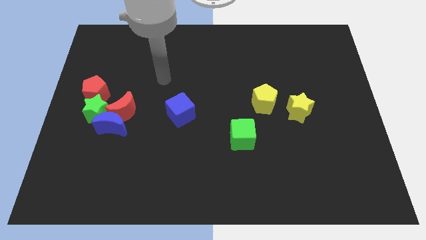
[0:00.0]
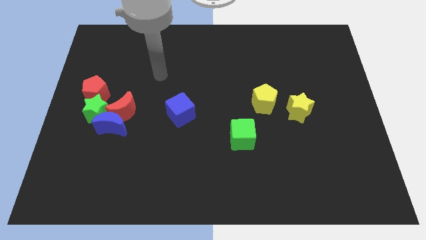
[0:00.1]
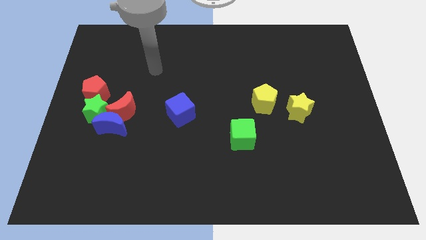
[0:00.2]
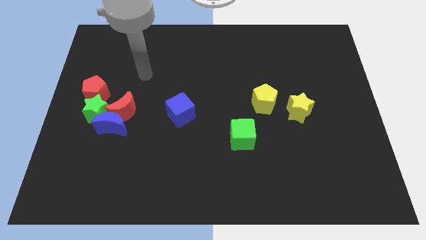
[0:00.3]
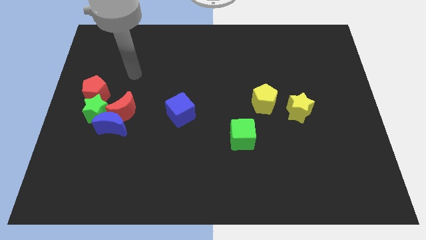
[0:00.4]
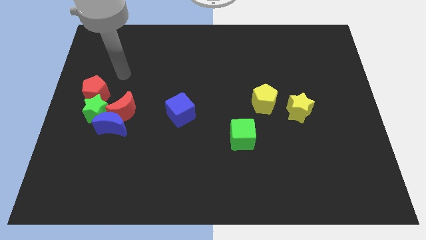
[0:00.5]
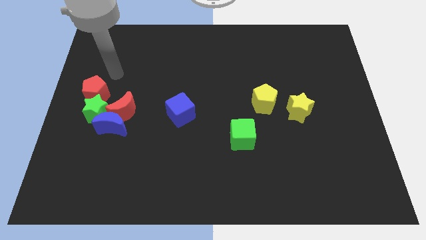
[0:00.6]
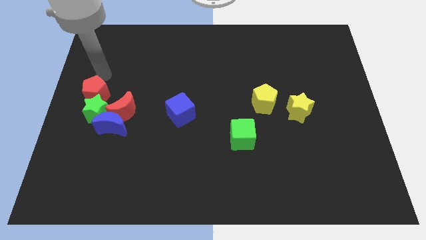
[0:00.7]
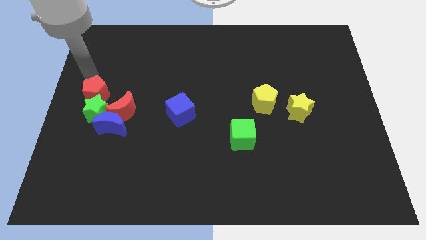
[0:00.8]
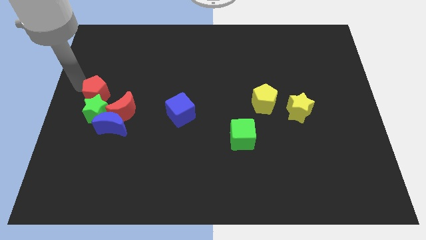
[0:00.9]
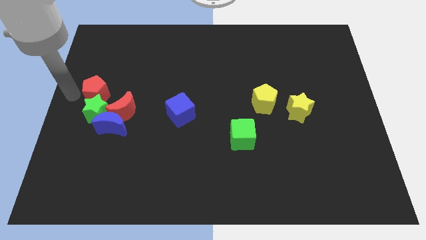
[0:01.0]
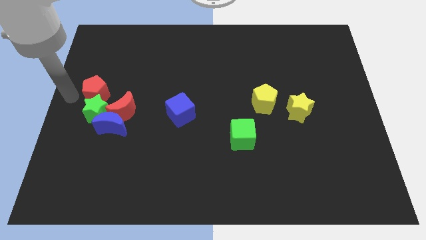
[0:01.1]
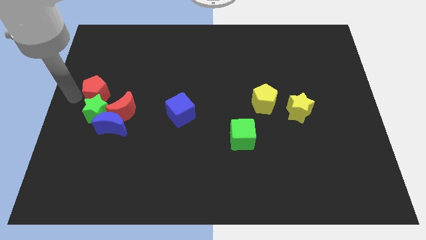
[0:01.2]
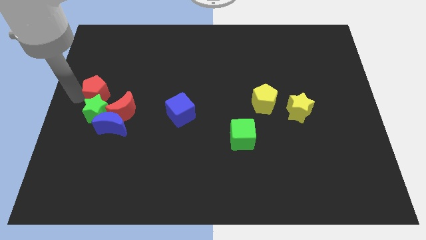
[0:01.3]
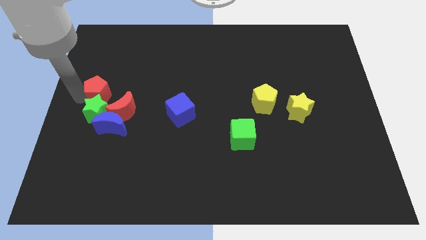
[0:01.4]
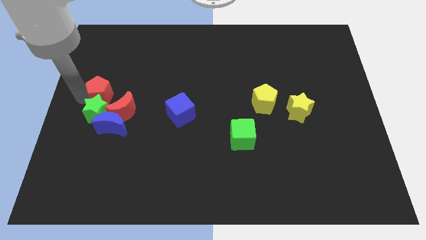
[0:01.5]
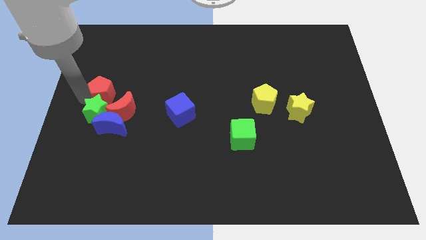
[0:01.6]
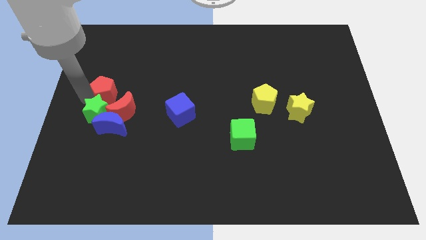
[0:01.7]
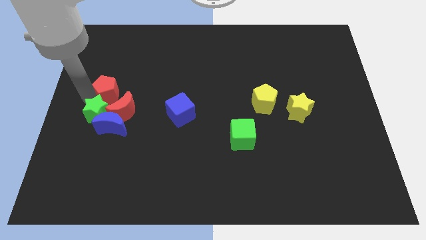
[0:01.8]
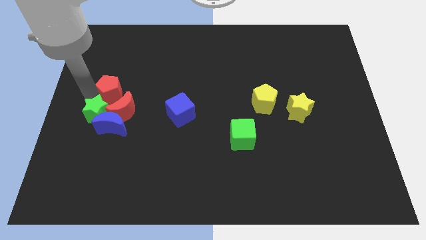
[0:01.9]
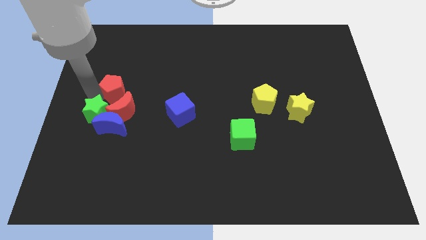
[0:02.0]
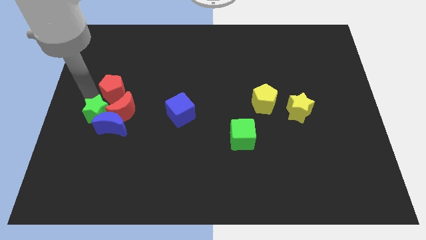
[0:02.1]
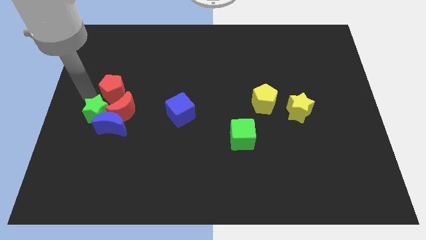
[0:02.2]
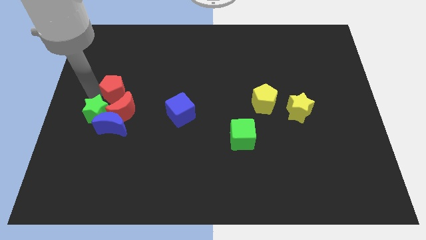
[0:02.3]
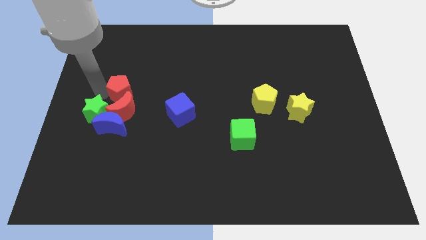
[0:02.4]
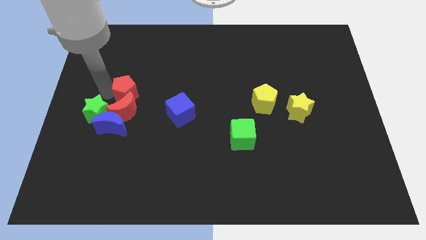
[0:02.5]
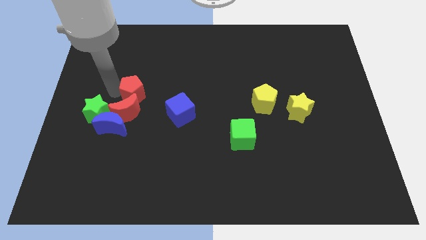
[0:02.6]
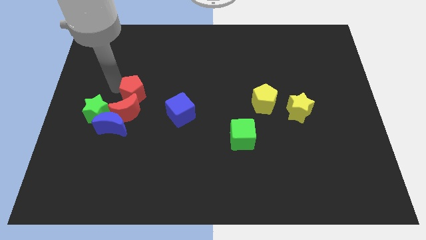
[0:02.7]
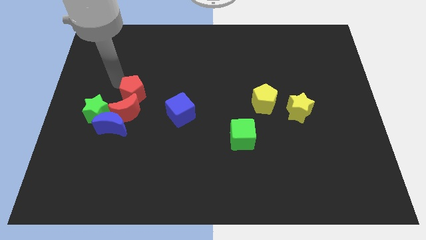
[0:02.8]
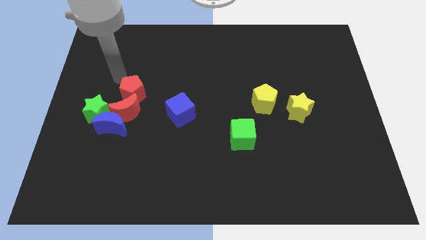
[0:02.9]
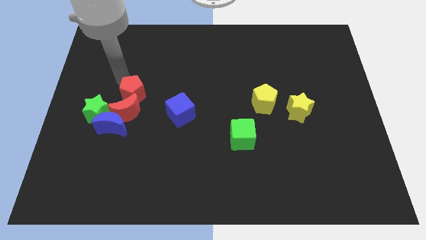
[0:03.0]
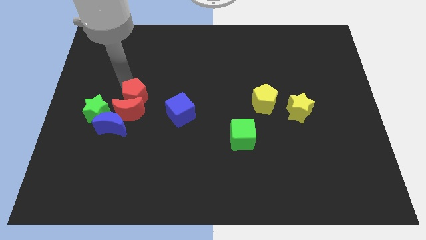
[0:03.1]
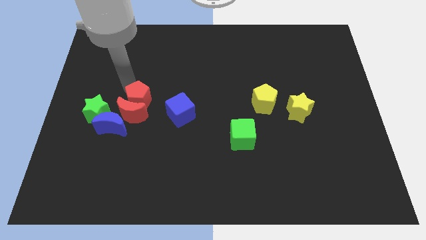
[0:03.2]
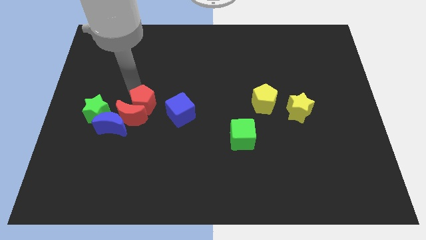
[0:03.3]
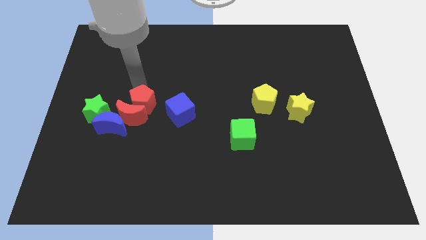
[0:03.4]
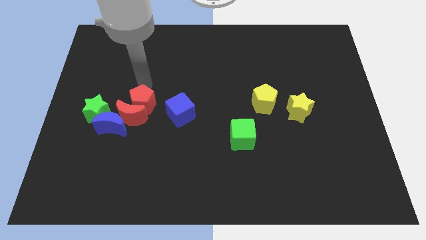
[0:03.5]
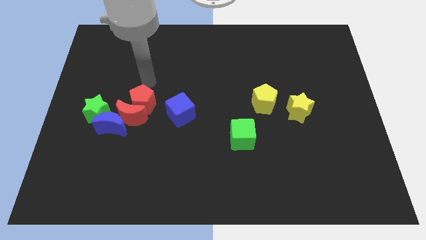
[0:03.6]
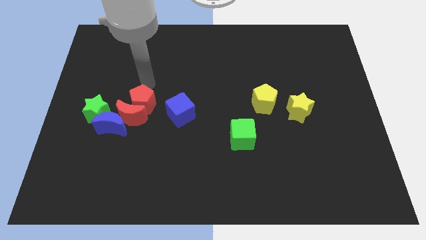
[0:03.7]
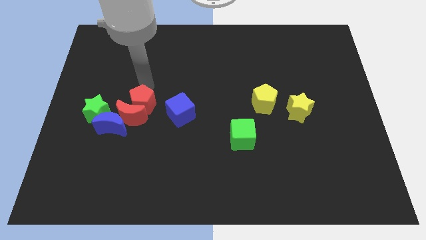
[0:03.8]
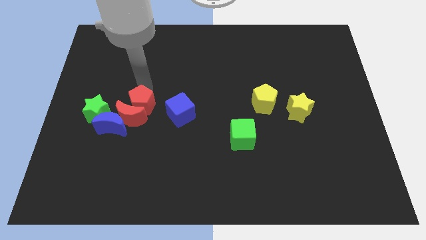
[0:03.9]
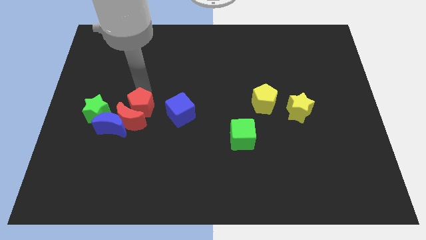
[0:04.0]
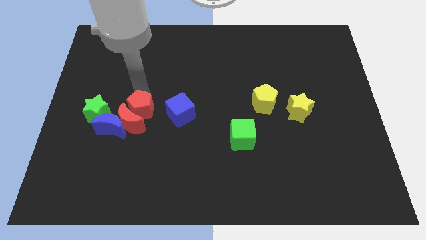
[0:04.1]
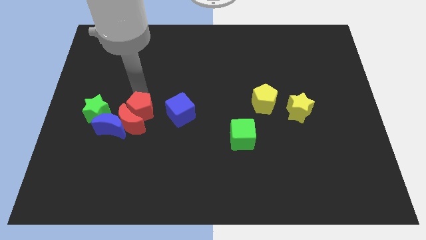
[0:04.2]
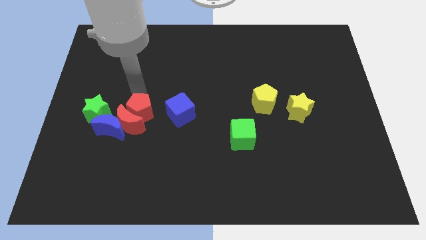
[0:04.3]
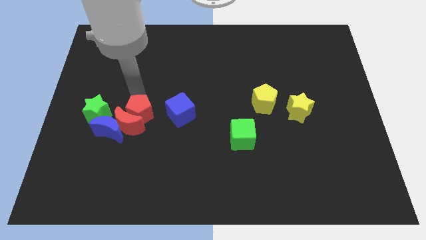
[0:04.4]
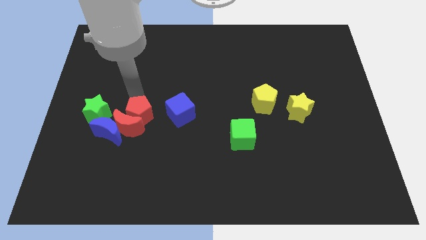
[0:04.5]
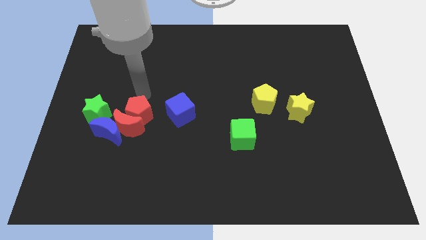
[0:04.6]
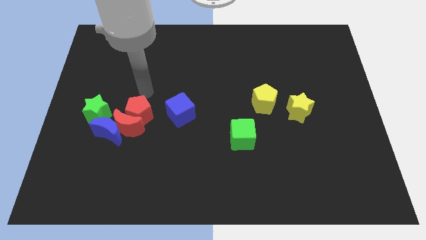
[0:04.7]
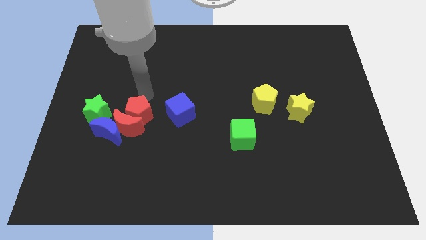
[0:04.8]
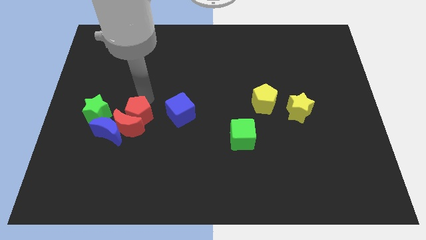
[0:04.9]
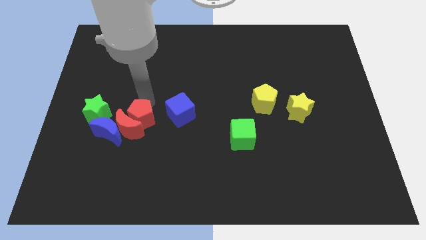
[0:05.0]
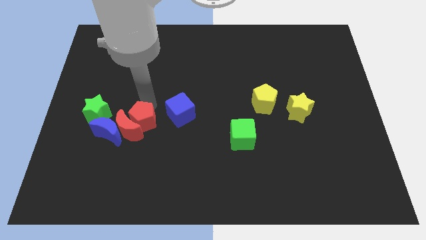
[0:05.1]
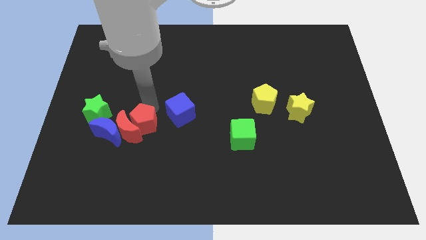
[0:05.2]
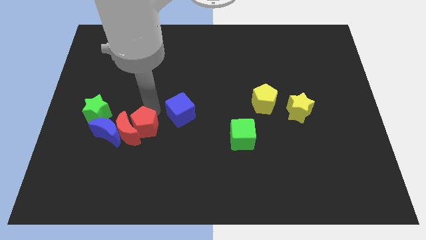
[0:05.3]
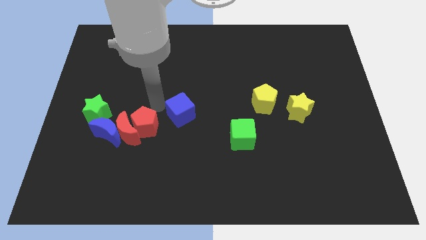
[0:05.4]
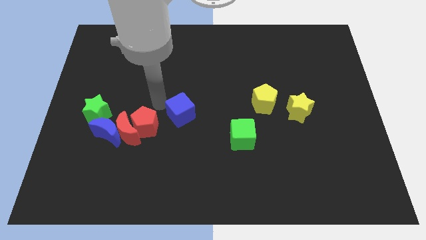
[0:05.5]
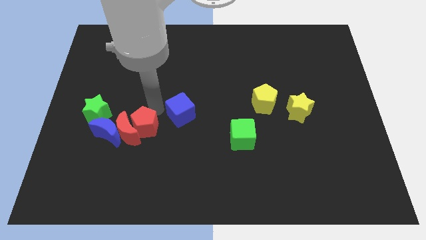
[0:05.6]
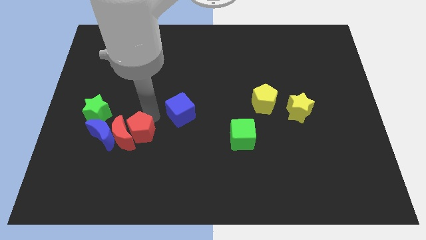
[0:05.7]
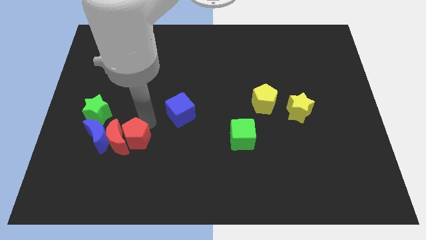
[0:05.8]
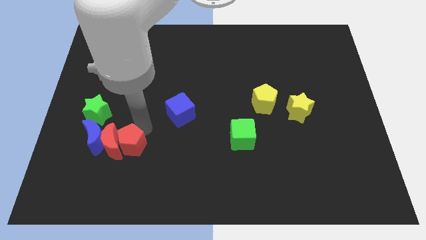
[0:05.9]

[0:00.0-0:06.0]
move the red pentagon diagonally down and to the right of the blue moon

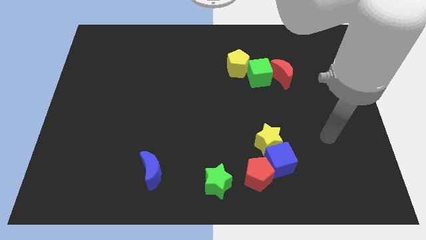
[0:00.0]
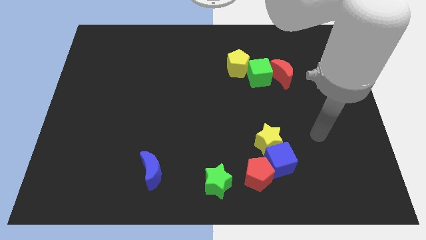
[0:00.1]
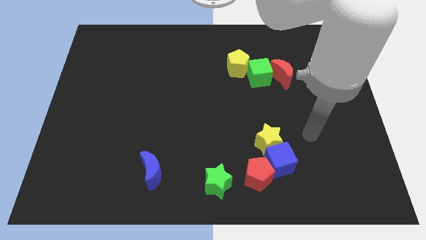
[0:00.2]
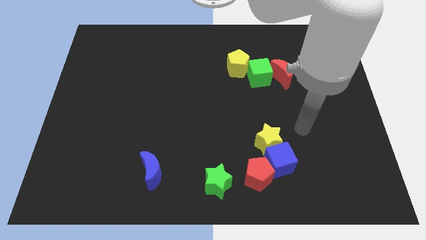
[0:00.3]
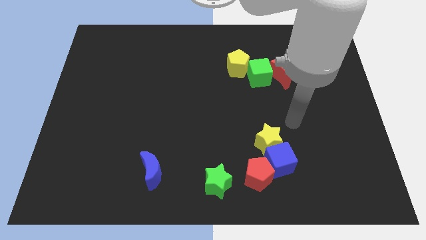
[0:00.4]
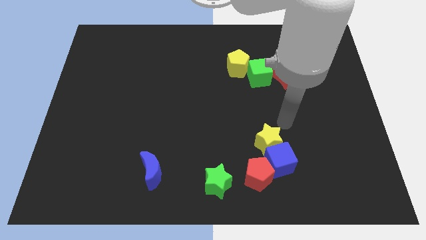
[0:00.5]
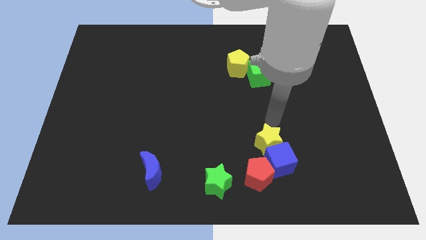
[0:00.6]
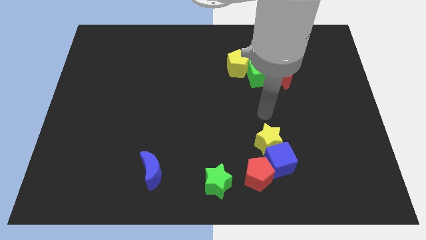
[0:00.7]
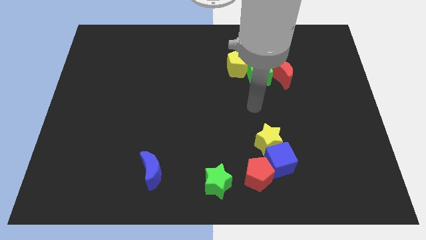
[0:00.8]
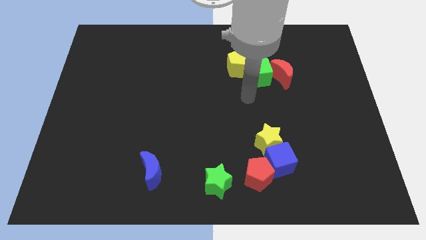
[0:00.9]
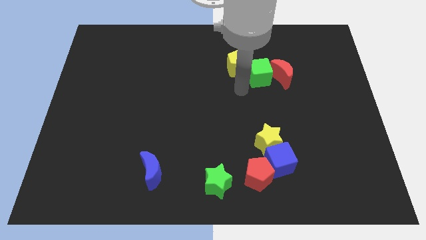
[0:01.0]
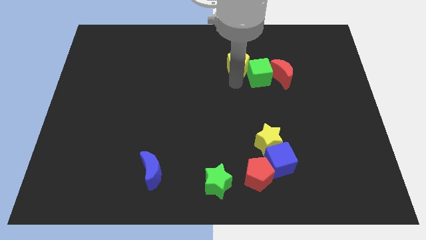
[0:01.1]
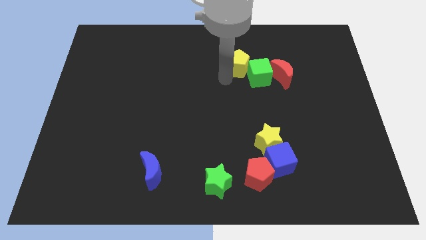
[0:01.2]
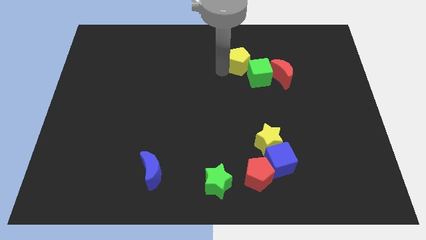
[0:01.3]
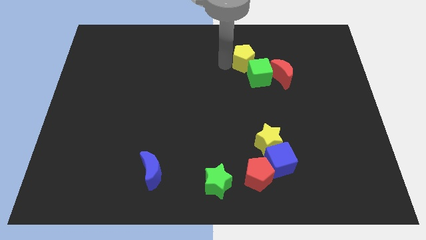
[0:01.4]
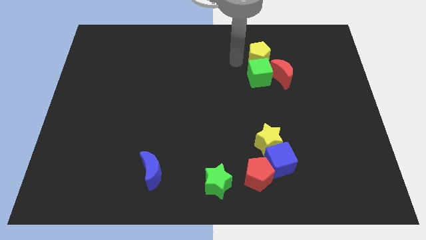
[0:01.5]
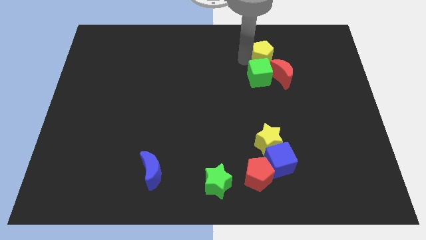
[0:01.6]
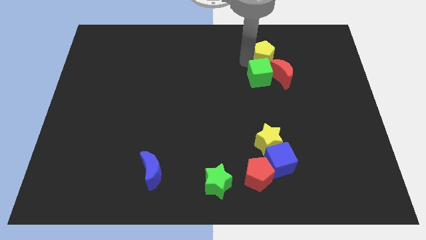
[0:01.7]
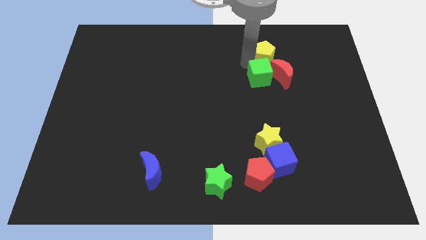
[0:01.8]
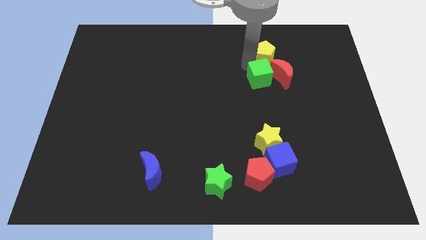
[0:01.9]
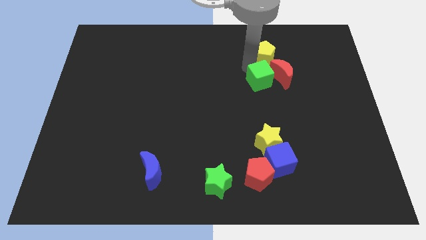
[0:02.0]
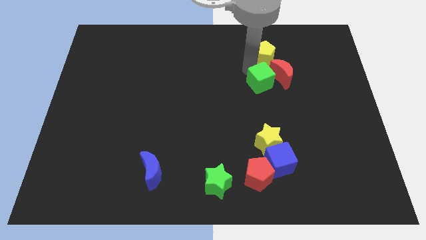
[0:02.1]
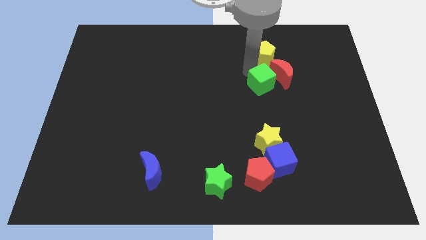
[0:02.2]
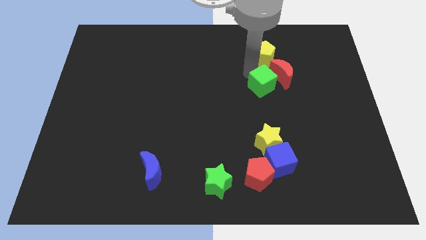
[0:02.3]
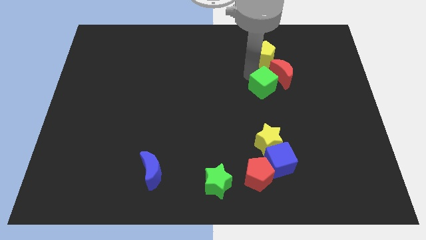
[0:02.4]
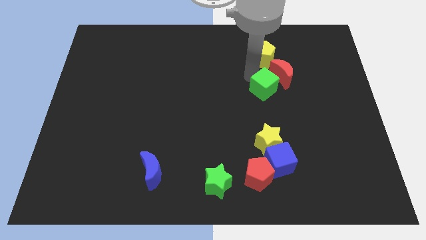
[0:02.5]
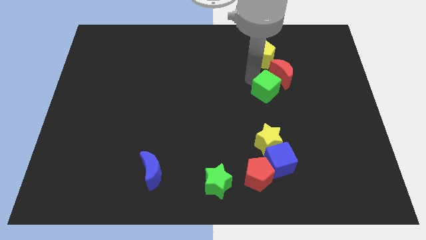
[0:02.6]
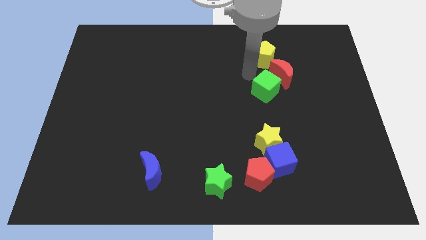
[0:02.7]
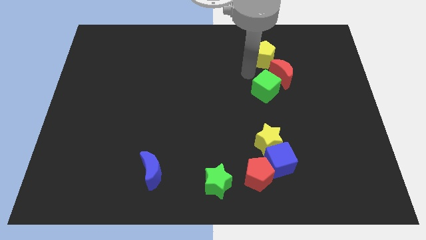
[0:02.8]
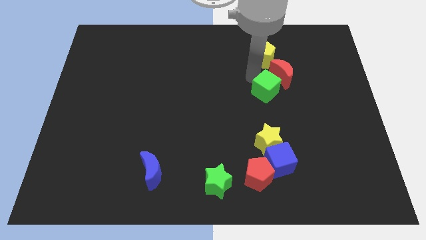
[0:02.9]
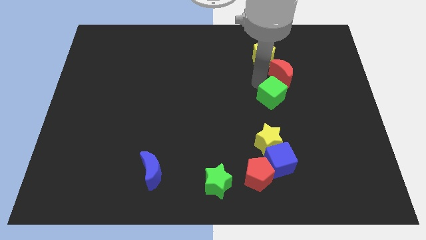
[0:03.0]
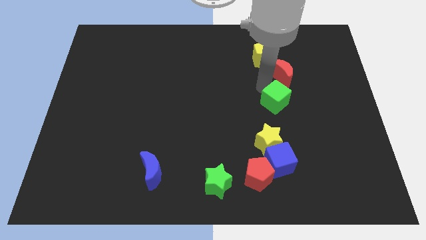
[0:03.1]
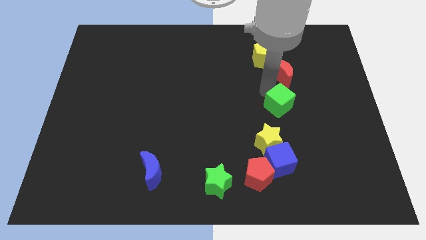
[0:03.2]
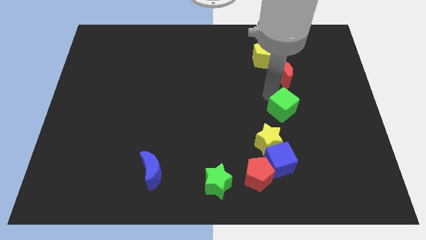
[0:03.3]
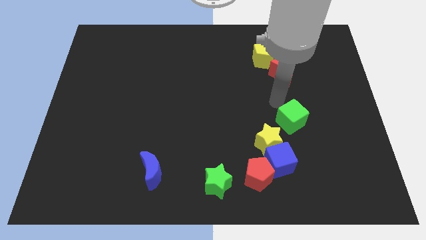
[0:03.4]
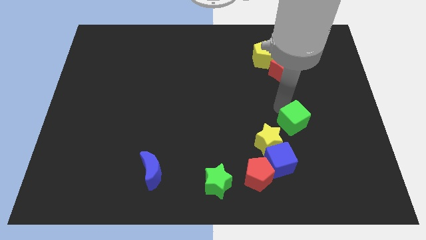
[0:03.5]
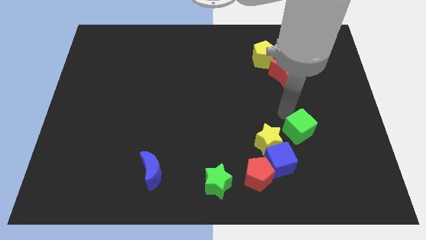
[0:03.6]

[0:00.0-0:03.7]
slide the green cube just right of the yellow star
